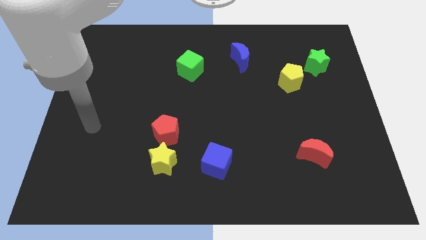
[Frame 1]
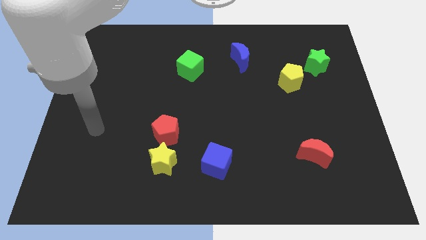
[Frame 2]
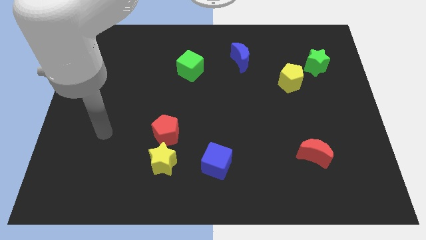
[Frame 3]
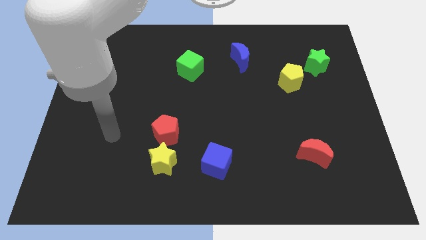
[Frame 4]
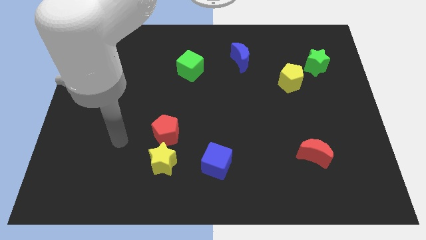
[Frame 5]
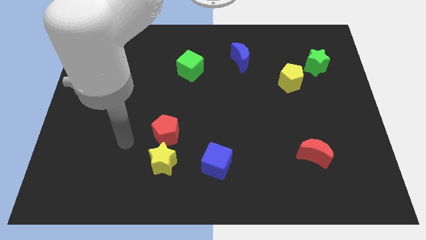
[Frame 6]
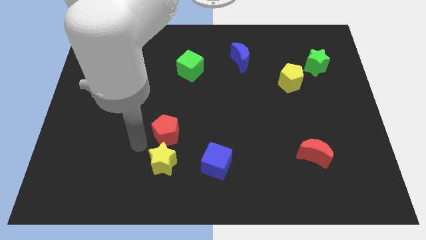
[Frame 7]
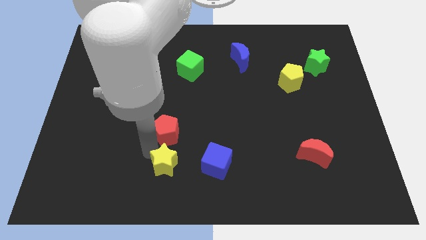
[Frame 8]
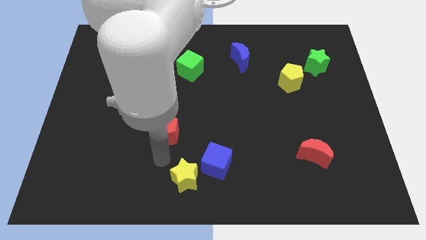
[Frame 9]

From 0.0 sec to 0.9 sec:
move the red pentagon away from the yellow star

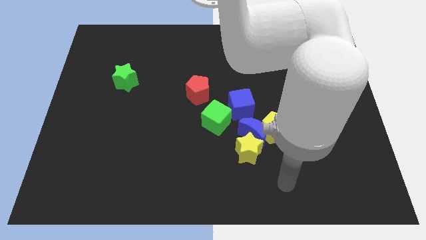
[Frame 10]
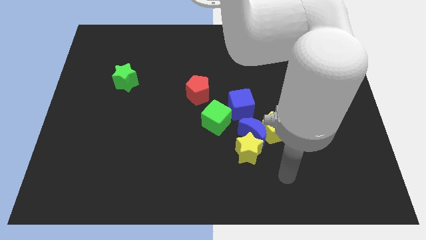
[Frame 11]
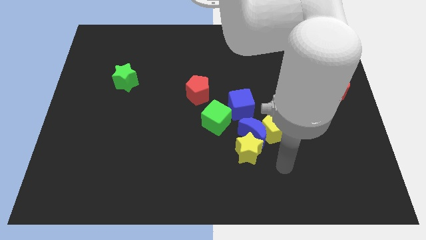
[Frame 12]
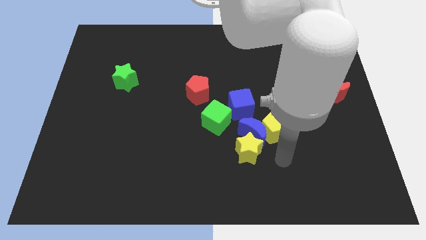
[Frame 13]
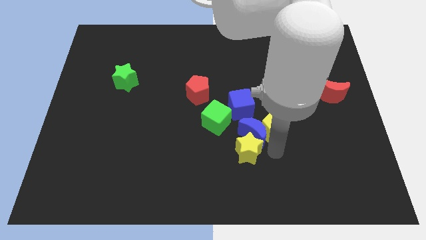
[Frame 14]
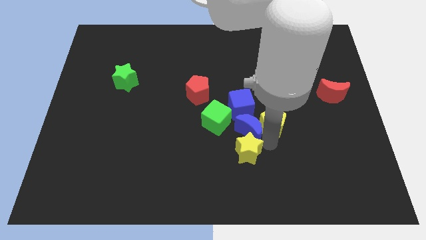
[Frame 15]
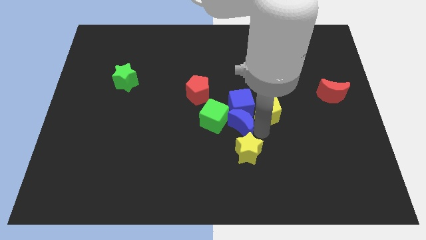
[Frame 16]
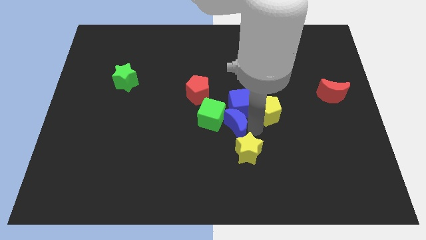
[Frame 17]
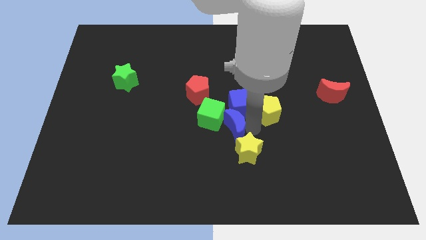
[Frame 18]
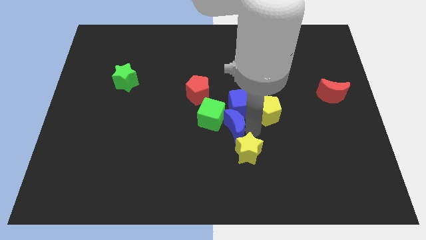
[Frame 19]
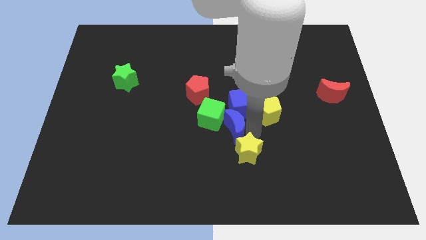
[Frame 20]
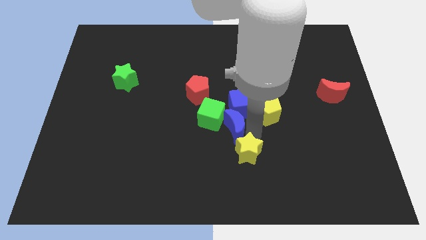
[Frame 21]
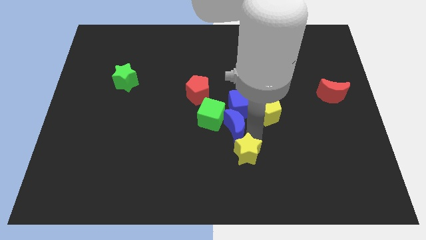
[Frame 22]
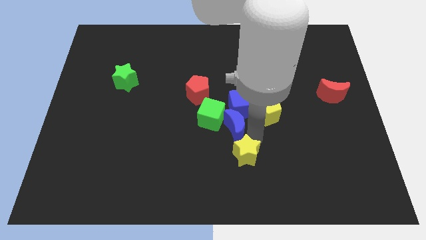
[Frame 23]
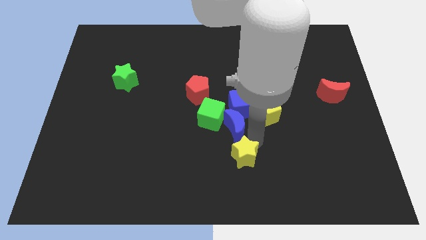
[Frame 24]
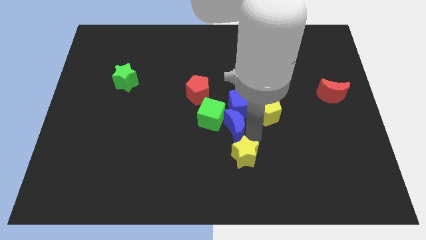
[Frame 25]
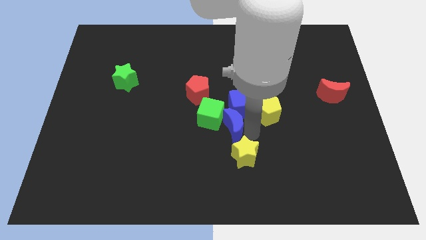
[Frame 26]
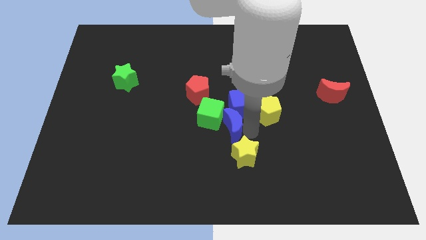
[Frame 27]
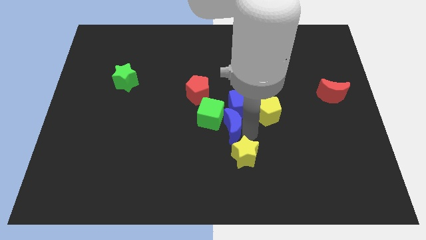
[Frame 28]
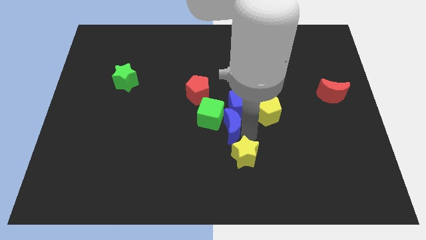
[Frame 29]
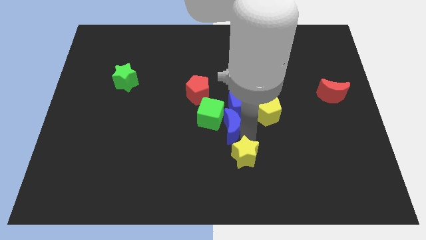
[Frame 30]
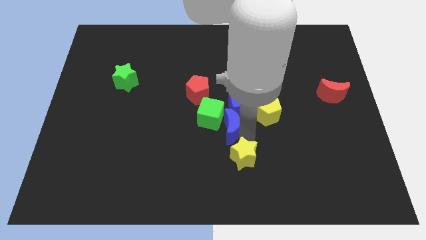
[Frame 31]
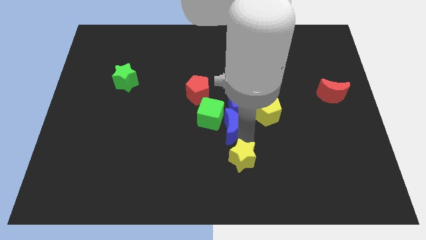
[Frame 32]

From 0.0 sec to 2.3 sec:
pull the yellow star apart from the blue moon and yellow pentagon

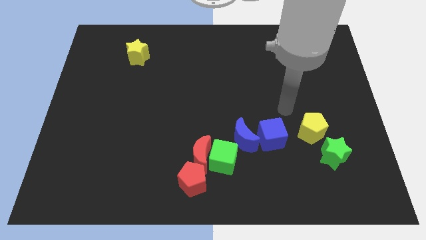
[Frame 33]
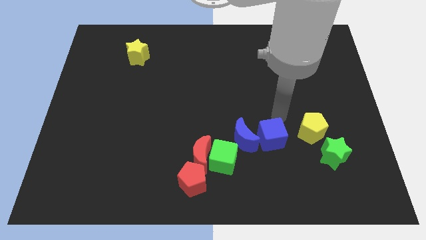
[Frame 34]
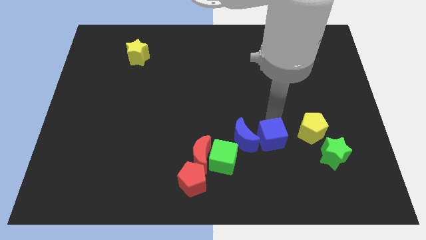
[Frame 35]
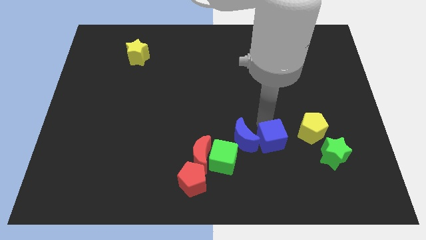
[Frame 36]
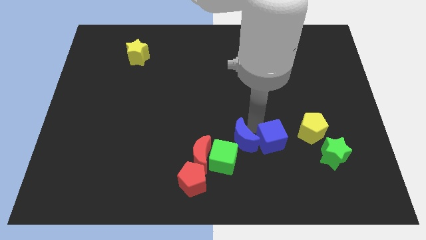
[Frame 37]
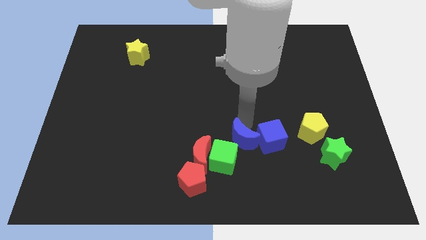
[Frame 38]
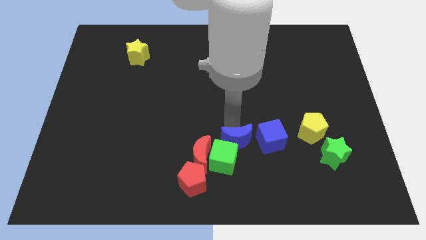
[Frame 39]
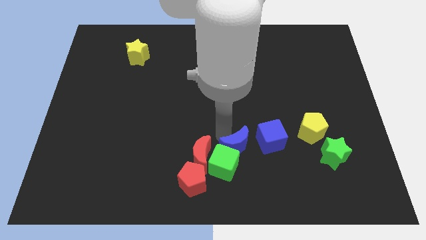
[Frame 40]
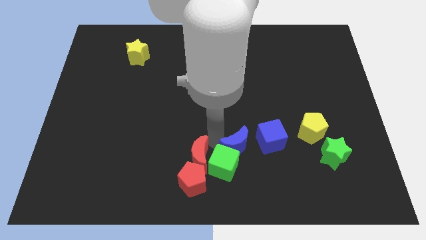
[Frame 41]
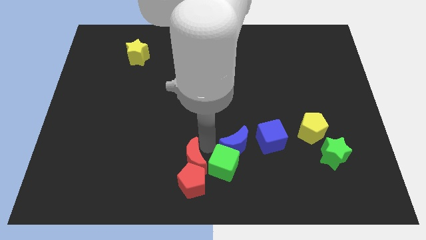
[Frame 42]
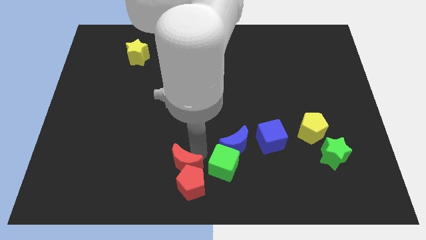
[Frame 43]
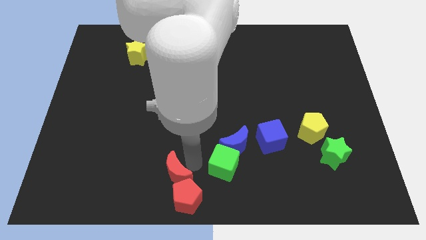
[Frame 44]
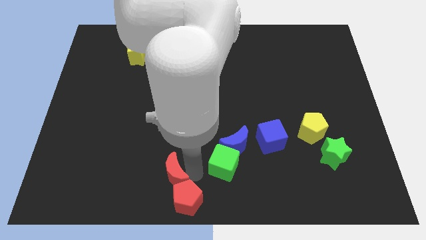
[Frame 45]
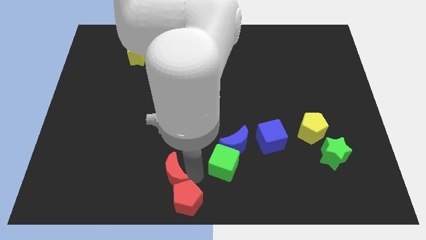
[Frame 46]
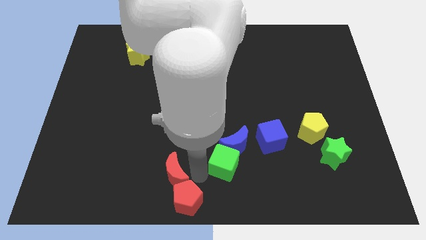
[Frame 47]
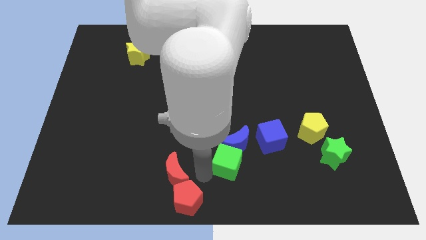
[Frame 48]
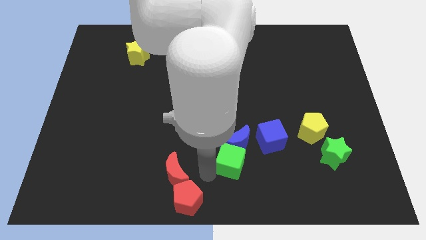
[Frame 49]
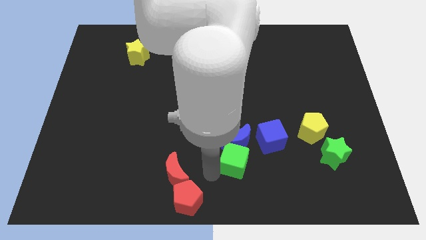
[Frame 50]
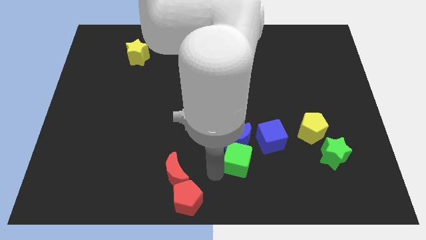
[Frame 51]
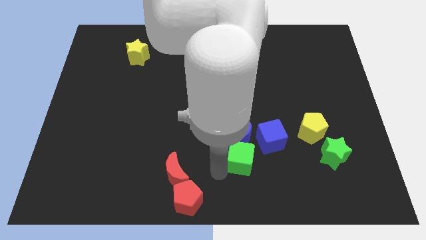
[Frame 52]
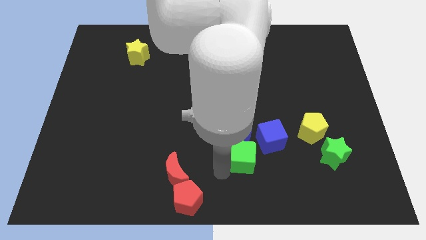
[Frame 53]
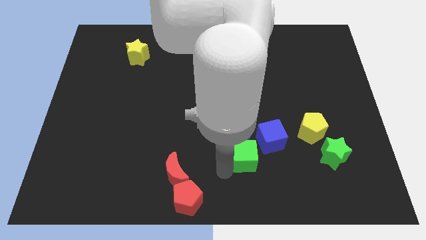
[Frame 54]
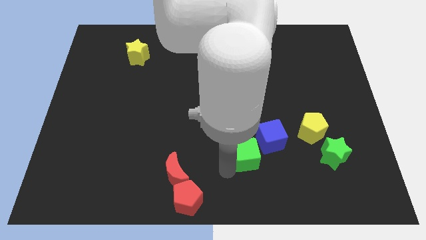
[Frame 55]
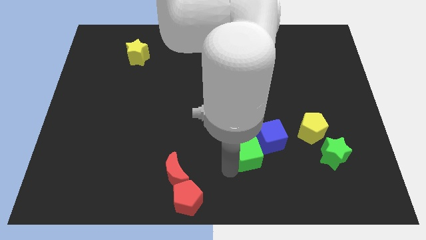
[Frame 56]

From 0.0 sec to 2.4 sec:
separate the green cube from the clump

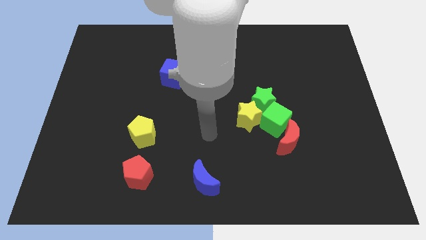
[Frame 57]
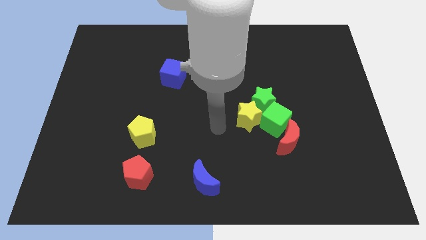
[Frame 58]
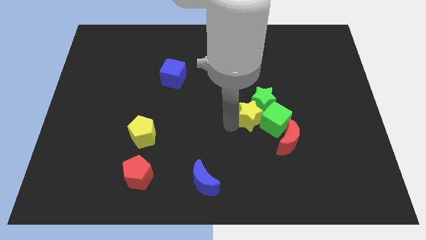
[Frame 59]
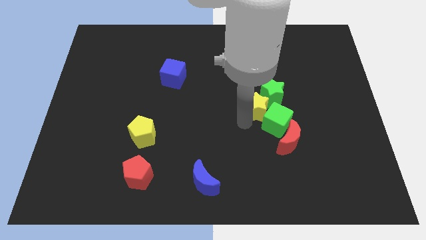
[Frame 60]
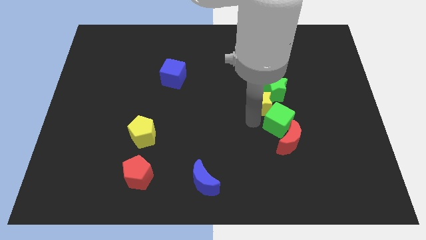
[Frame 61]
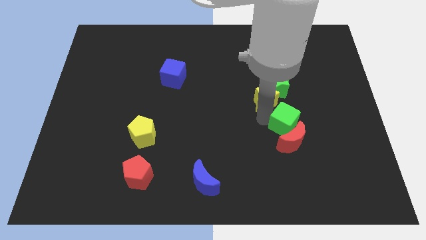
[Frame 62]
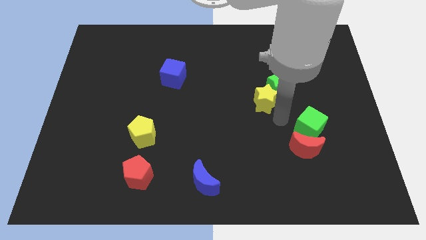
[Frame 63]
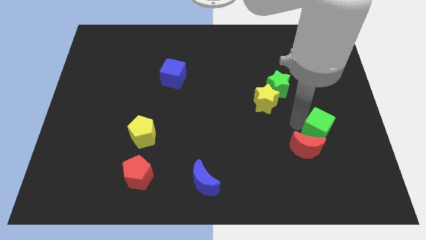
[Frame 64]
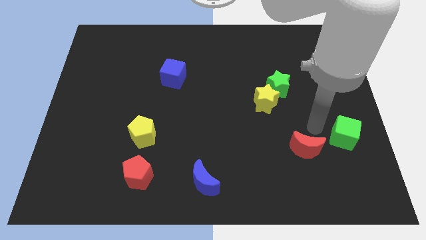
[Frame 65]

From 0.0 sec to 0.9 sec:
pull the red moon apart from the green cube

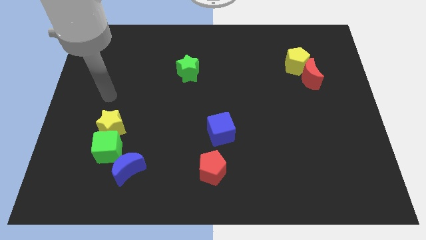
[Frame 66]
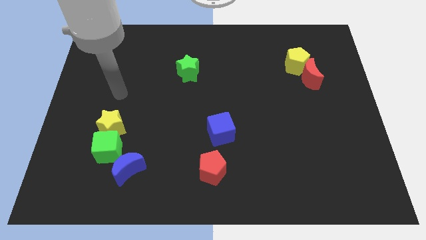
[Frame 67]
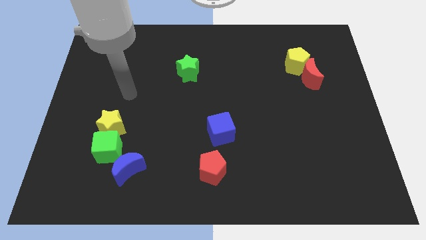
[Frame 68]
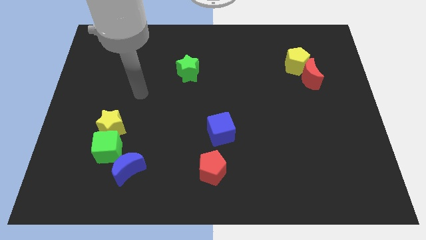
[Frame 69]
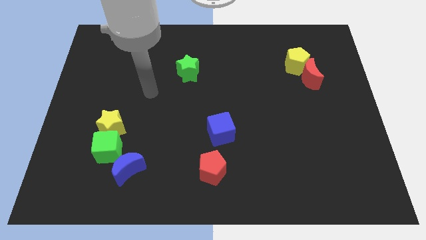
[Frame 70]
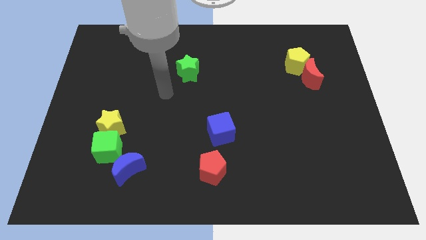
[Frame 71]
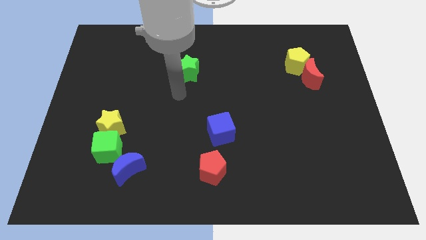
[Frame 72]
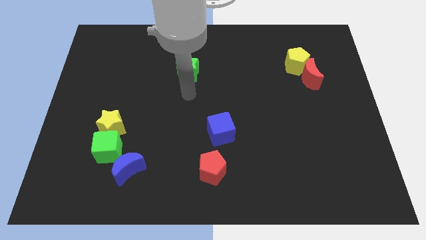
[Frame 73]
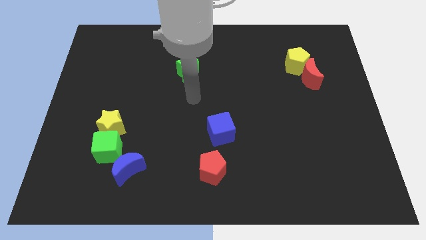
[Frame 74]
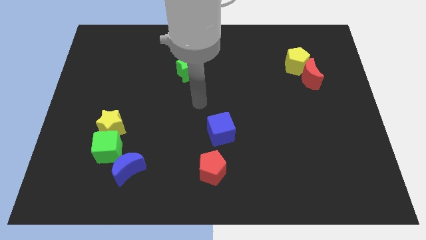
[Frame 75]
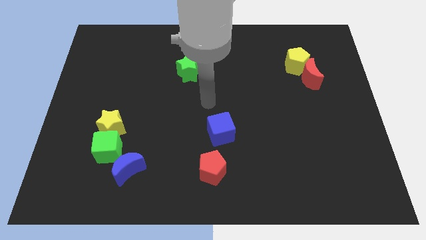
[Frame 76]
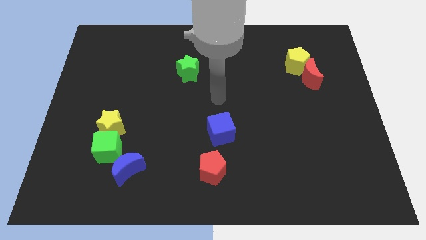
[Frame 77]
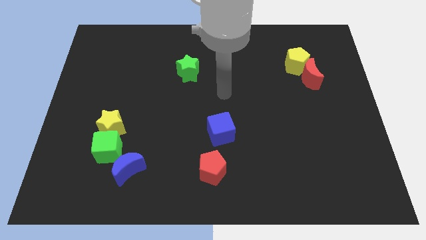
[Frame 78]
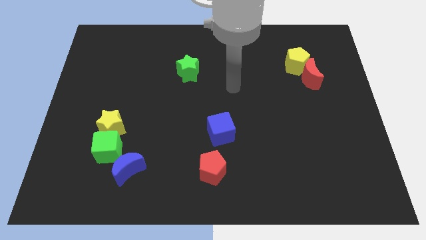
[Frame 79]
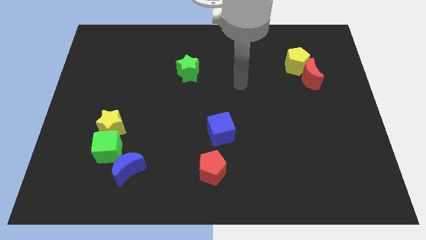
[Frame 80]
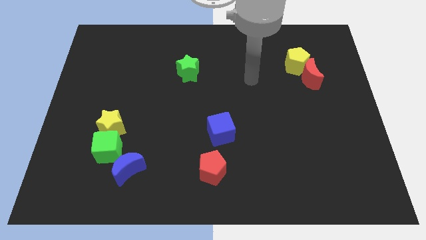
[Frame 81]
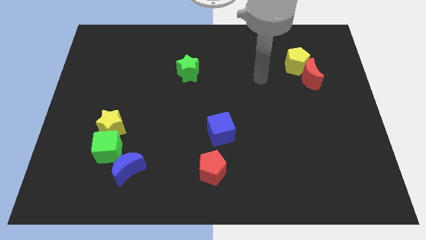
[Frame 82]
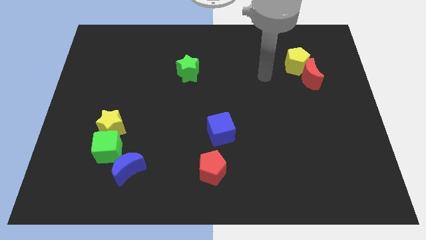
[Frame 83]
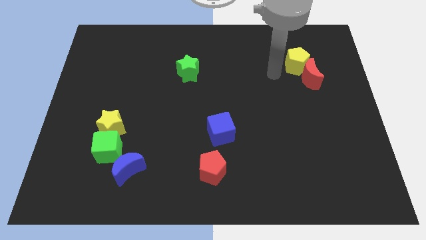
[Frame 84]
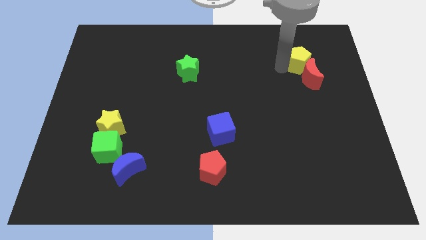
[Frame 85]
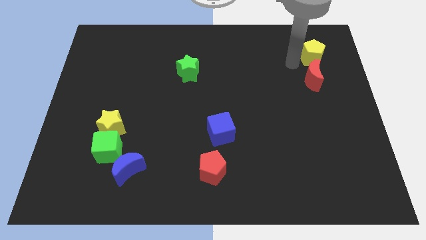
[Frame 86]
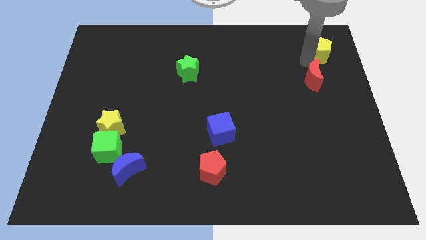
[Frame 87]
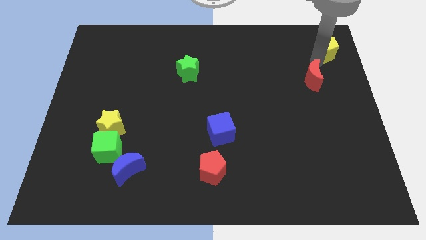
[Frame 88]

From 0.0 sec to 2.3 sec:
separate the red moon from the yellow pentagon

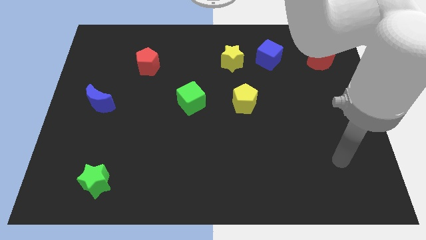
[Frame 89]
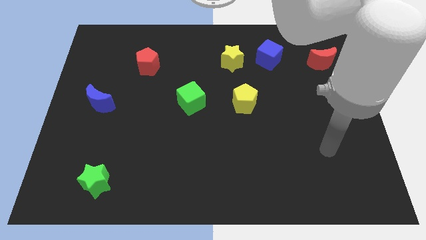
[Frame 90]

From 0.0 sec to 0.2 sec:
pull the blue cube apart from the yellow star

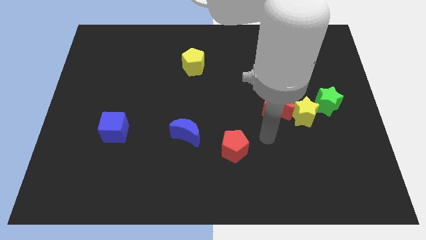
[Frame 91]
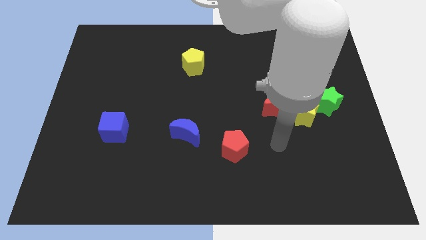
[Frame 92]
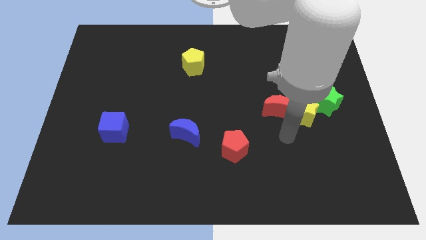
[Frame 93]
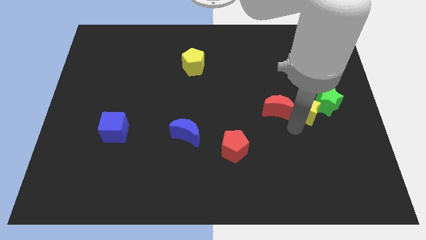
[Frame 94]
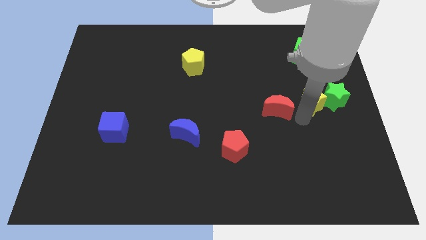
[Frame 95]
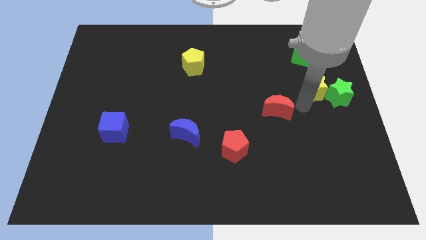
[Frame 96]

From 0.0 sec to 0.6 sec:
separate the red moon from the yellow star
